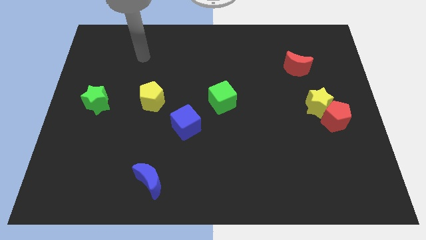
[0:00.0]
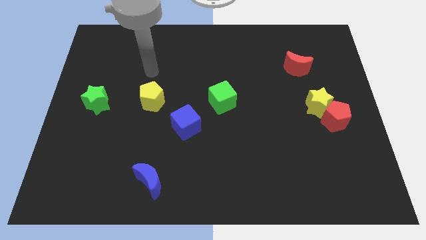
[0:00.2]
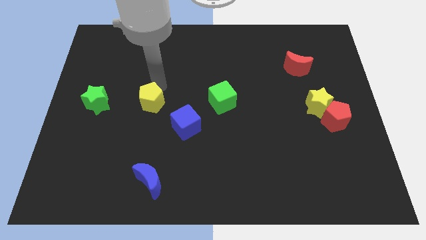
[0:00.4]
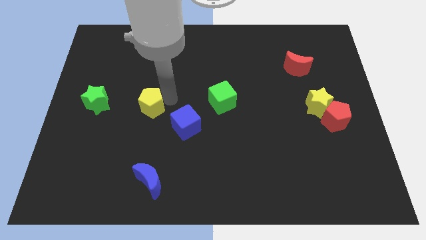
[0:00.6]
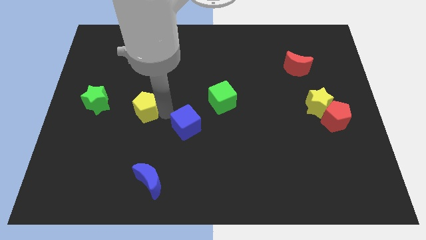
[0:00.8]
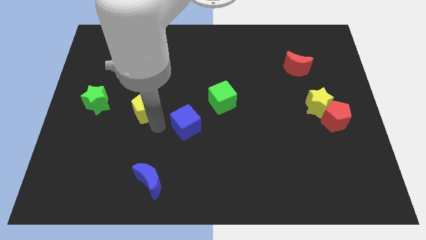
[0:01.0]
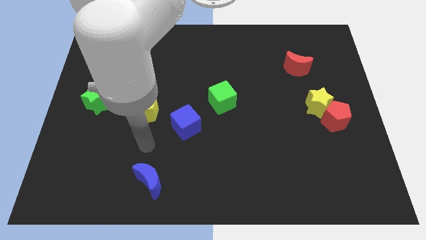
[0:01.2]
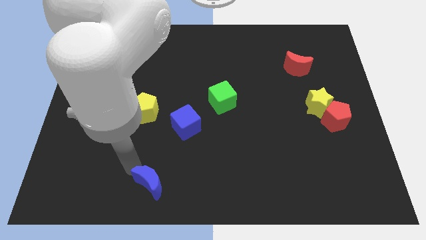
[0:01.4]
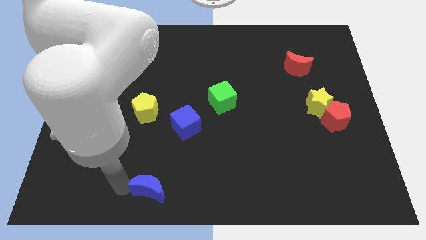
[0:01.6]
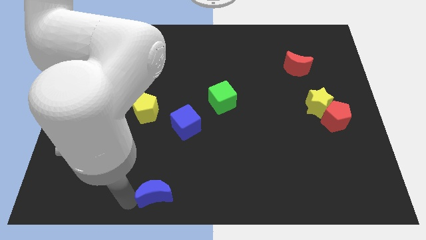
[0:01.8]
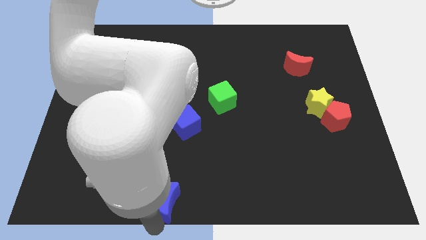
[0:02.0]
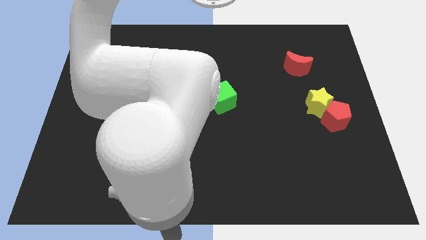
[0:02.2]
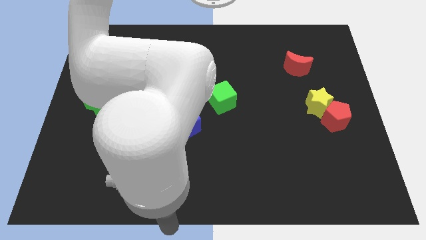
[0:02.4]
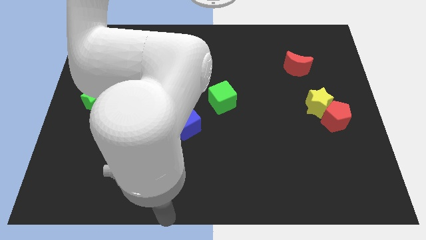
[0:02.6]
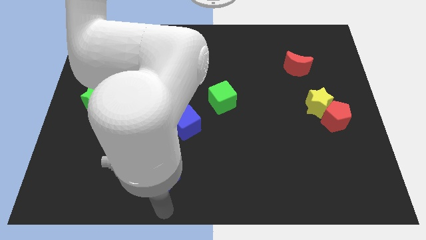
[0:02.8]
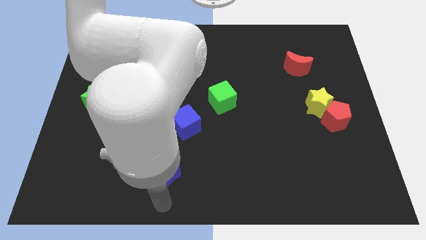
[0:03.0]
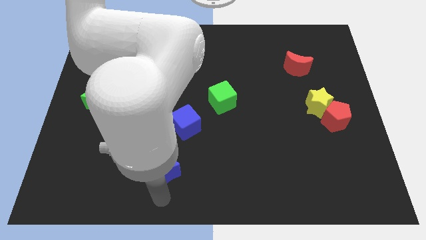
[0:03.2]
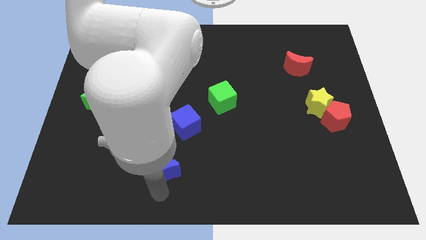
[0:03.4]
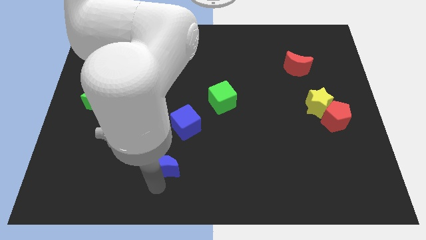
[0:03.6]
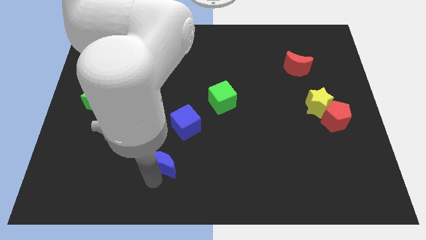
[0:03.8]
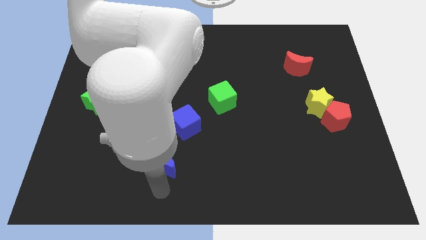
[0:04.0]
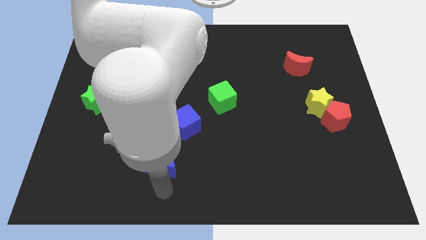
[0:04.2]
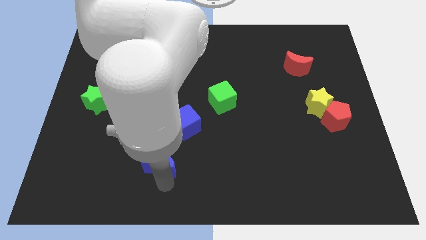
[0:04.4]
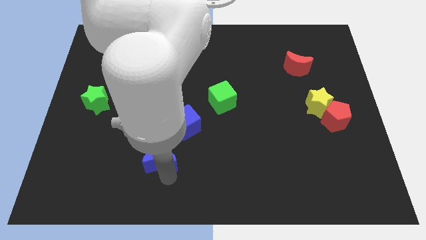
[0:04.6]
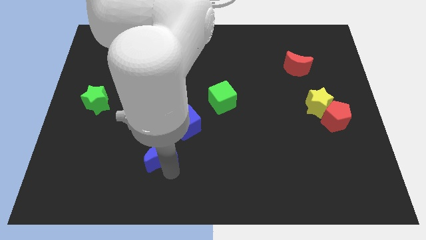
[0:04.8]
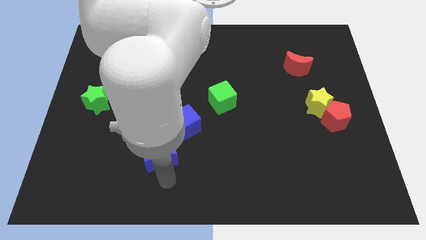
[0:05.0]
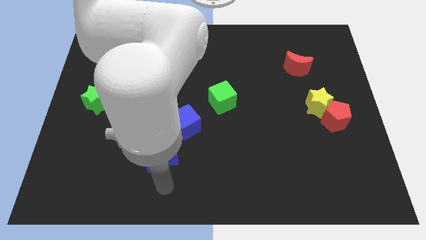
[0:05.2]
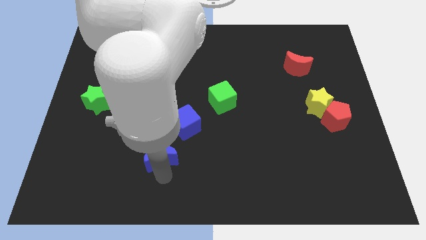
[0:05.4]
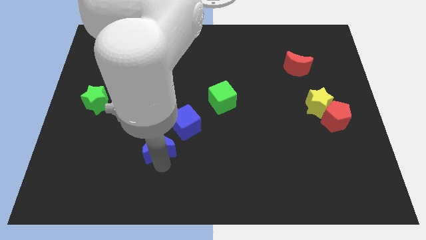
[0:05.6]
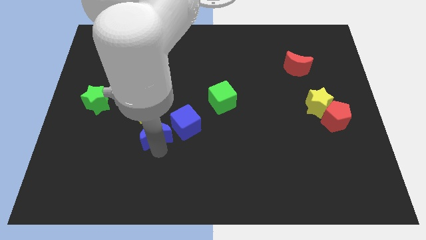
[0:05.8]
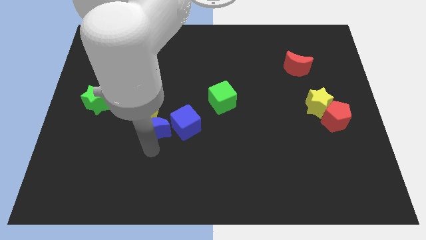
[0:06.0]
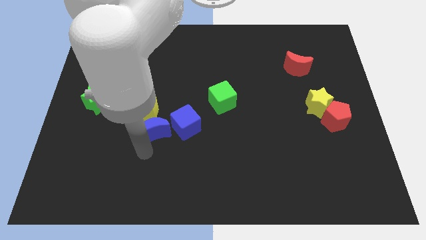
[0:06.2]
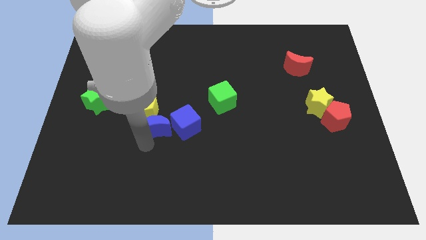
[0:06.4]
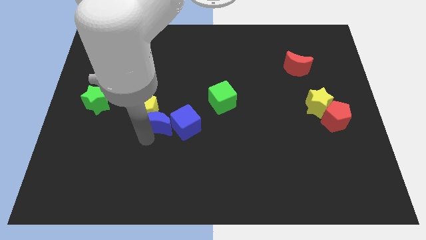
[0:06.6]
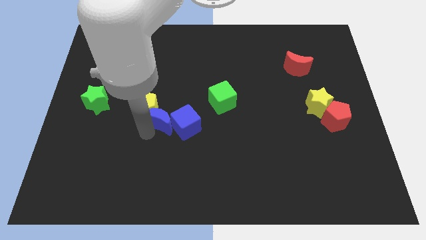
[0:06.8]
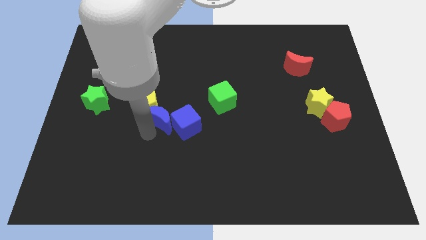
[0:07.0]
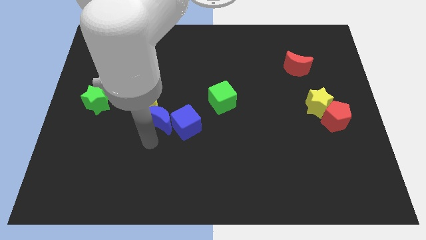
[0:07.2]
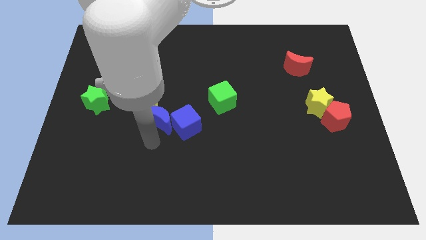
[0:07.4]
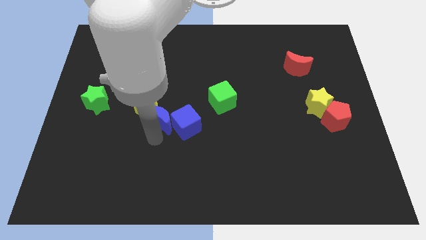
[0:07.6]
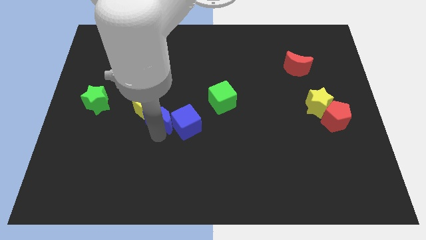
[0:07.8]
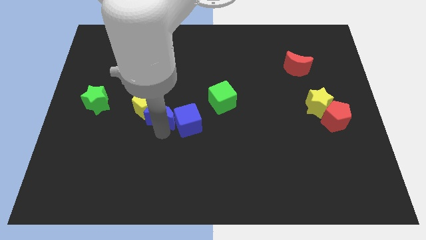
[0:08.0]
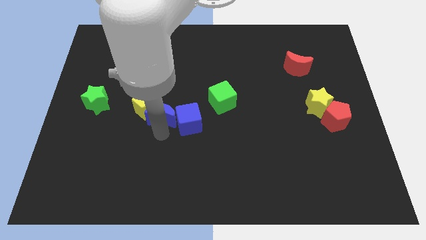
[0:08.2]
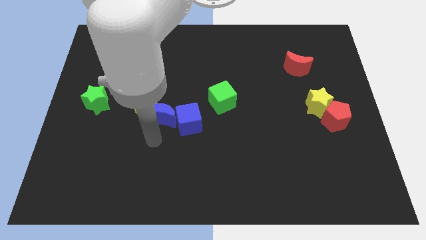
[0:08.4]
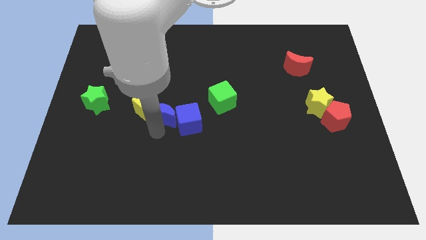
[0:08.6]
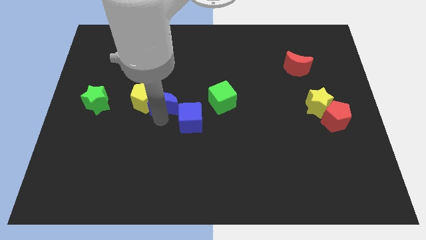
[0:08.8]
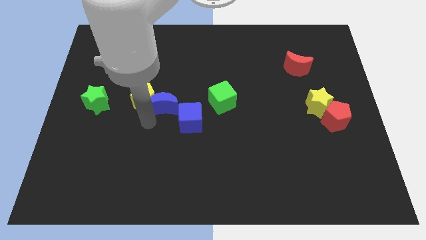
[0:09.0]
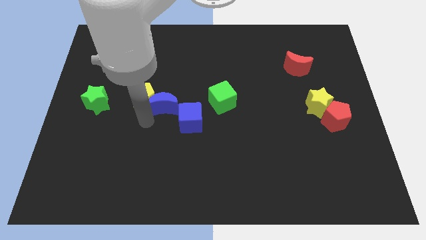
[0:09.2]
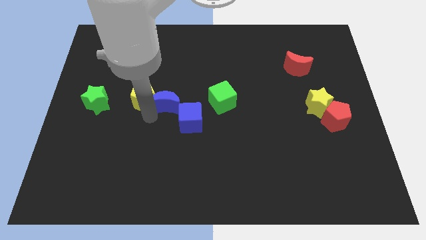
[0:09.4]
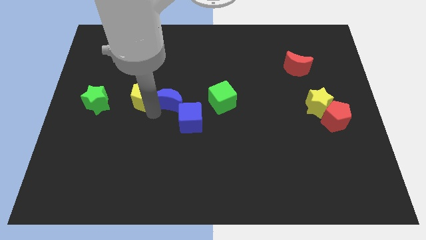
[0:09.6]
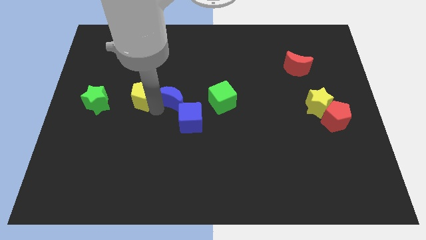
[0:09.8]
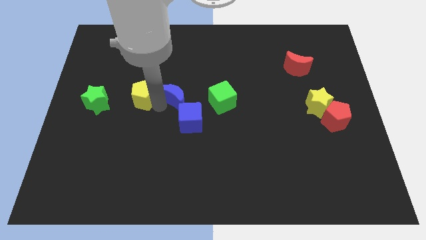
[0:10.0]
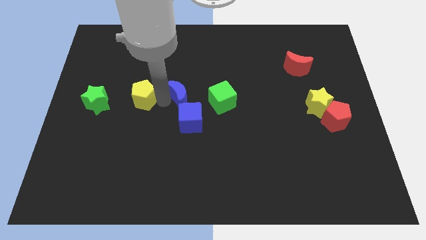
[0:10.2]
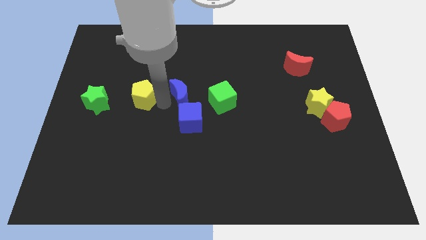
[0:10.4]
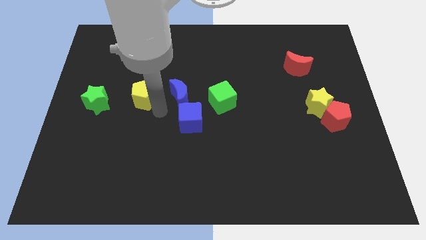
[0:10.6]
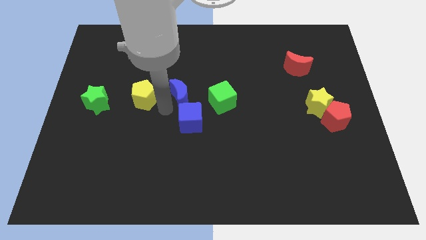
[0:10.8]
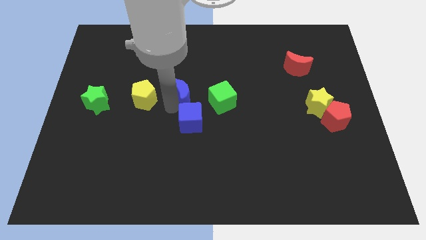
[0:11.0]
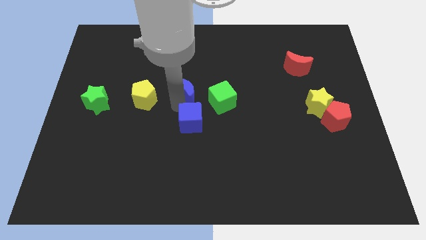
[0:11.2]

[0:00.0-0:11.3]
slide the blue moon to the top left side of the green cube
